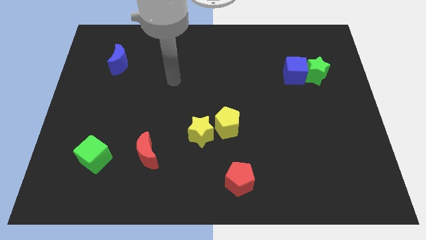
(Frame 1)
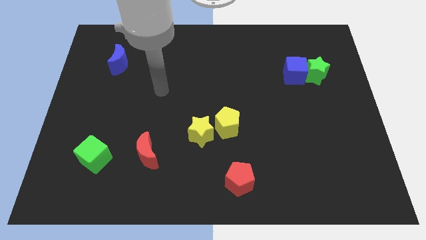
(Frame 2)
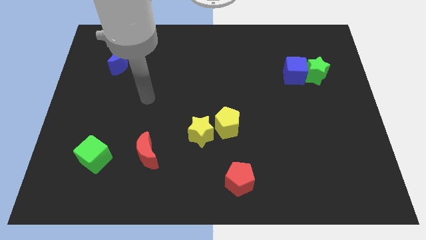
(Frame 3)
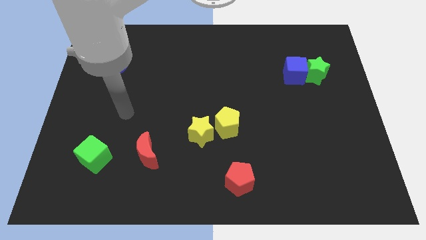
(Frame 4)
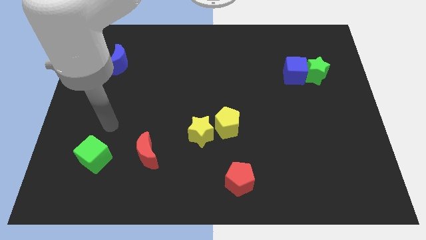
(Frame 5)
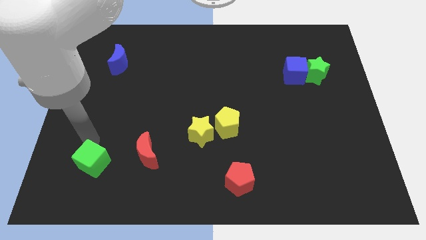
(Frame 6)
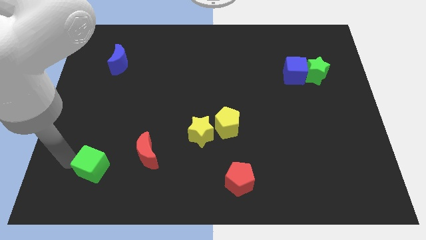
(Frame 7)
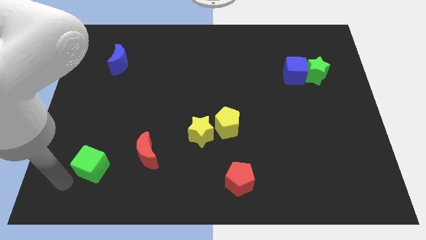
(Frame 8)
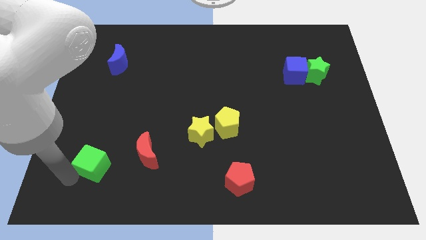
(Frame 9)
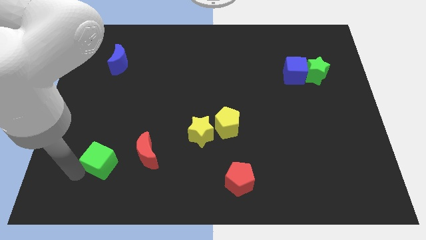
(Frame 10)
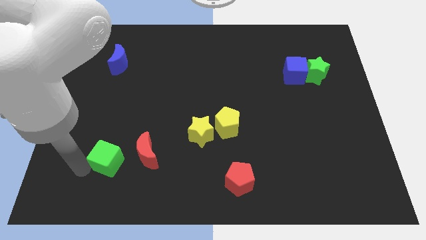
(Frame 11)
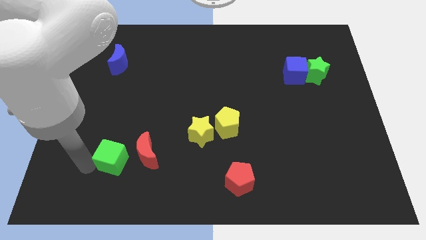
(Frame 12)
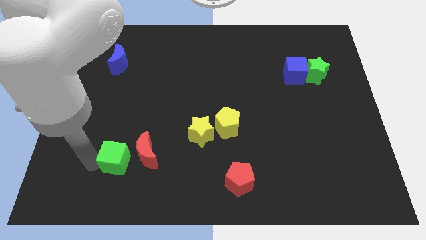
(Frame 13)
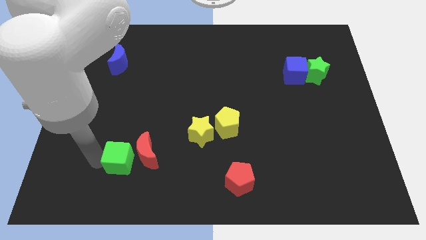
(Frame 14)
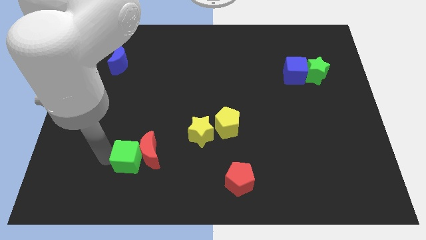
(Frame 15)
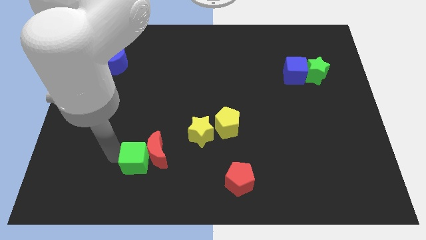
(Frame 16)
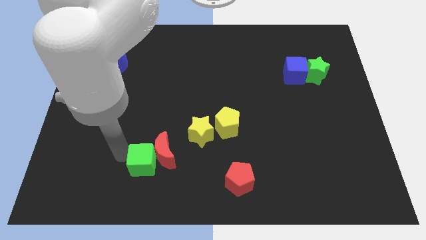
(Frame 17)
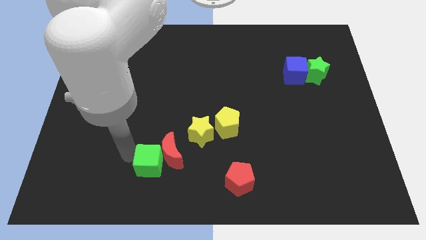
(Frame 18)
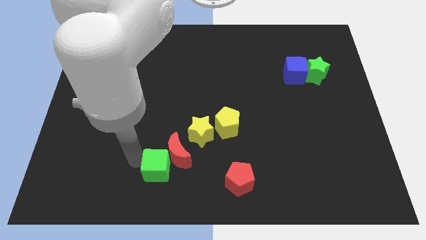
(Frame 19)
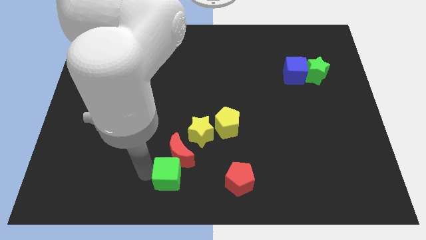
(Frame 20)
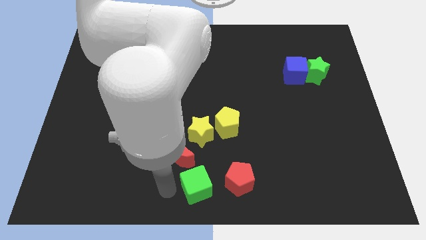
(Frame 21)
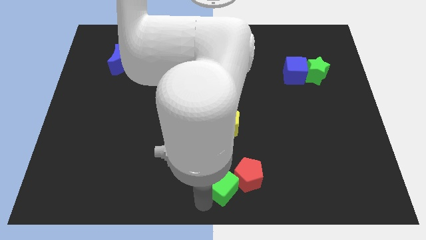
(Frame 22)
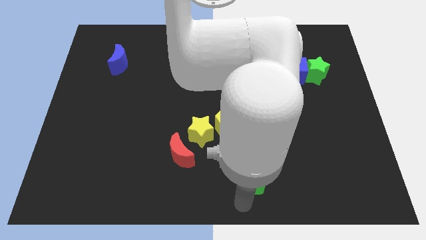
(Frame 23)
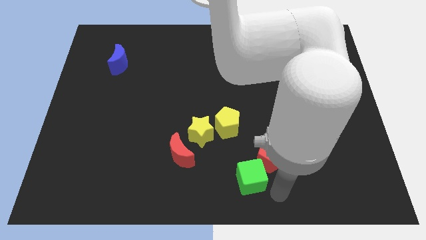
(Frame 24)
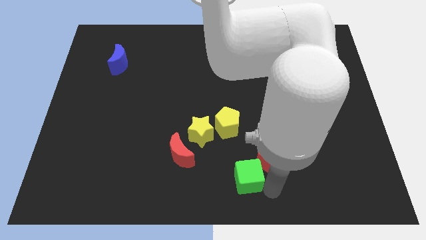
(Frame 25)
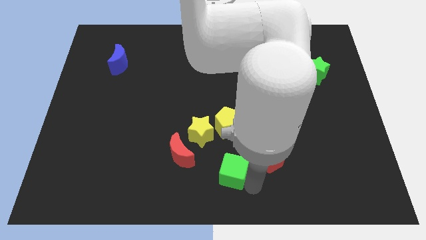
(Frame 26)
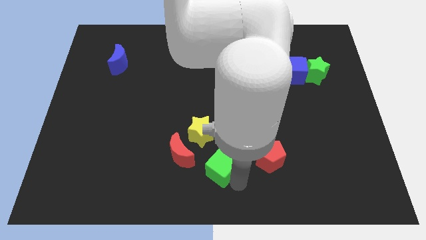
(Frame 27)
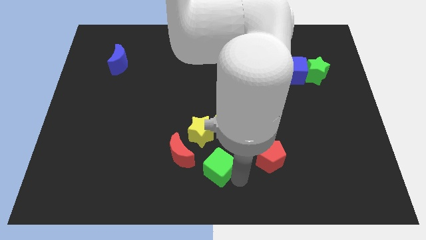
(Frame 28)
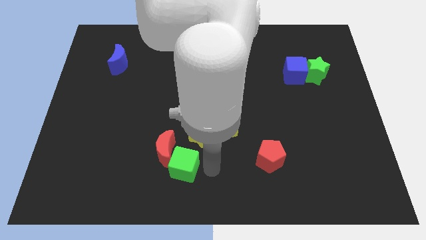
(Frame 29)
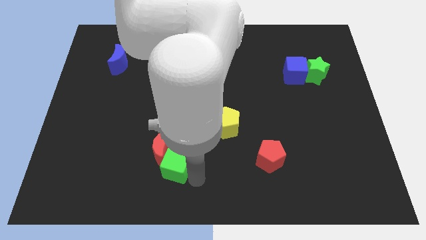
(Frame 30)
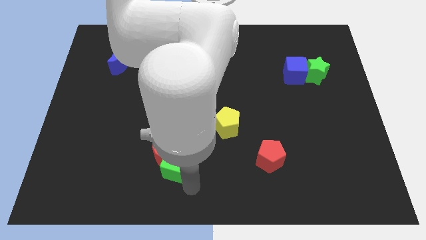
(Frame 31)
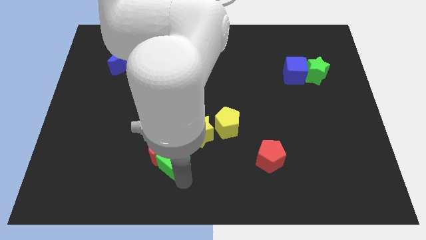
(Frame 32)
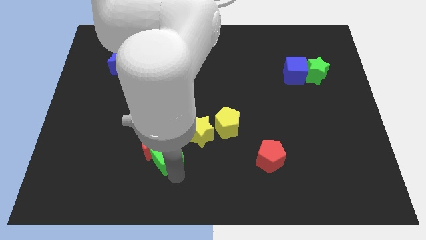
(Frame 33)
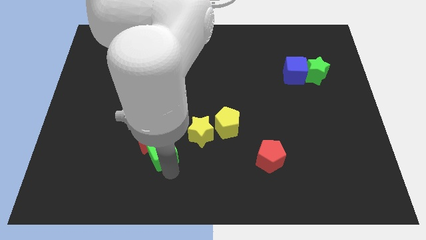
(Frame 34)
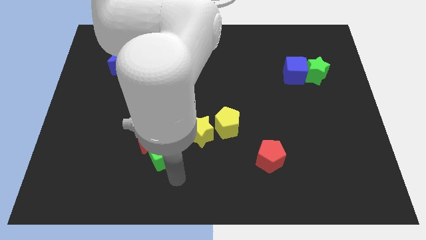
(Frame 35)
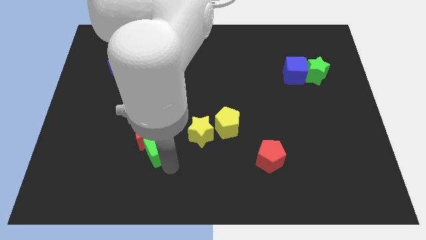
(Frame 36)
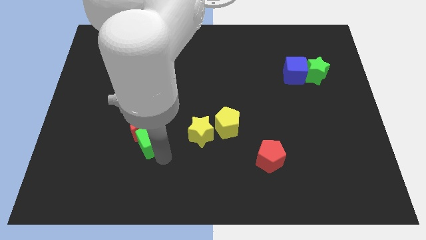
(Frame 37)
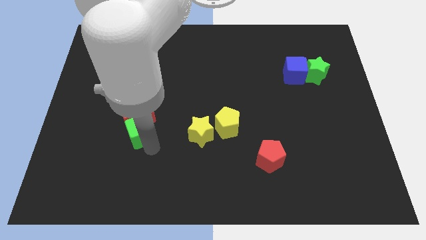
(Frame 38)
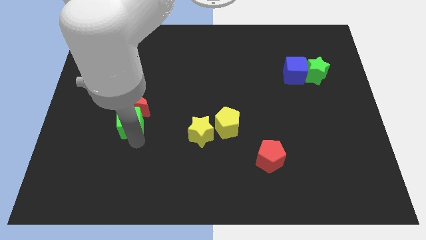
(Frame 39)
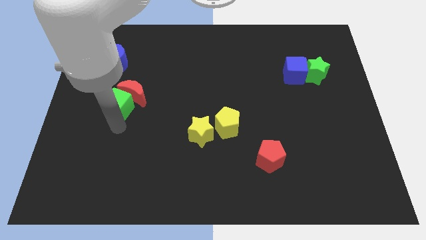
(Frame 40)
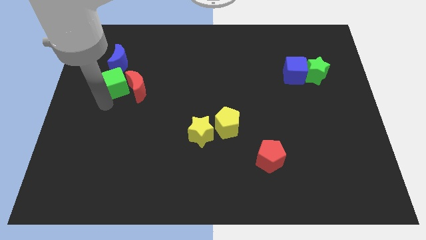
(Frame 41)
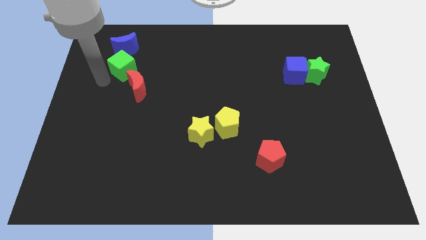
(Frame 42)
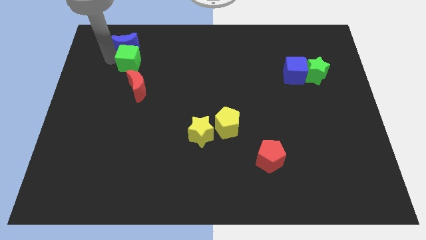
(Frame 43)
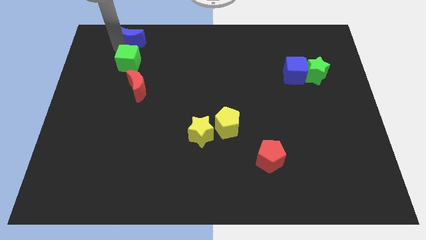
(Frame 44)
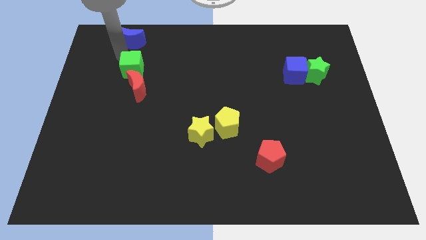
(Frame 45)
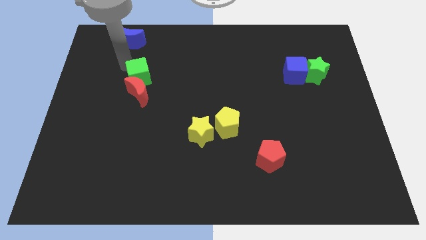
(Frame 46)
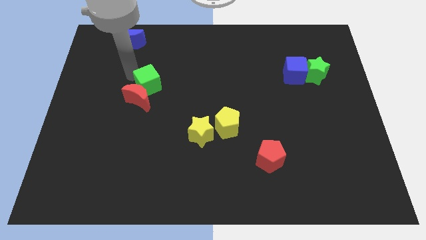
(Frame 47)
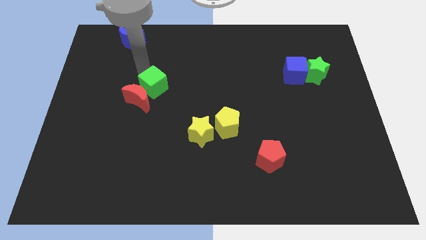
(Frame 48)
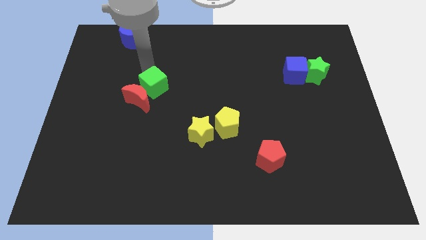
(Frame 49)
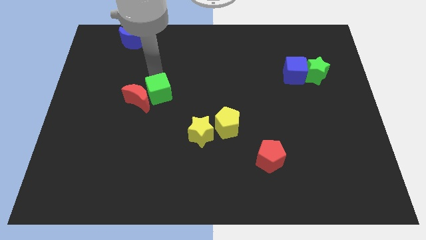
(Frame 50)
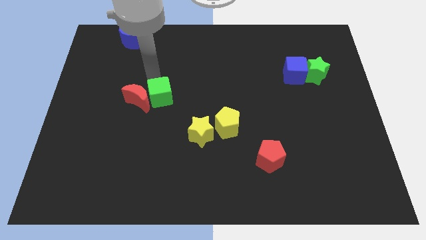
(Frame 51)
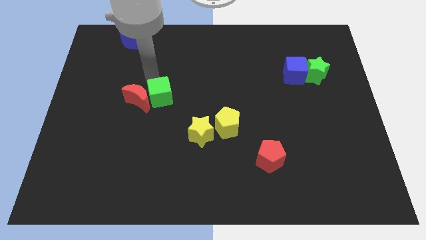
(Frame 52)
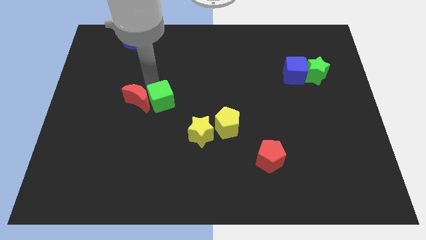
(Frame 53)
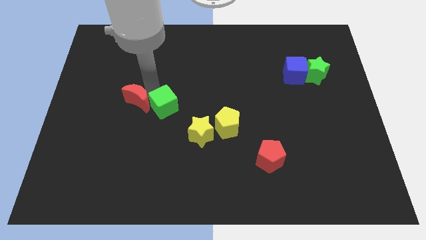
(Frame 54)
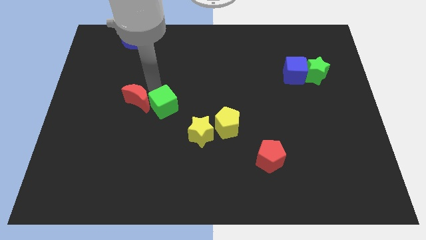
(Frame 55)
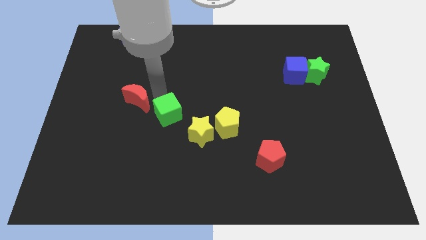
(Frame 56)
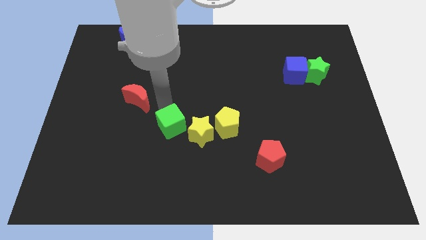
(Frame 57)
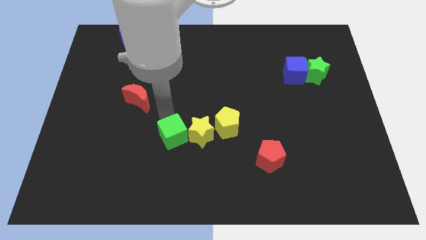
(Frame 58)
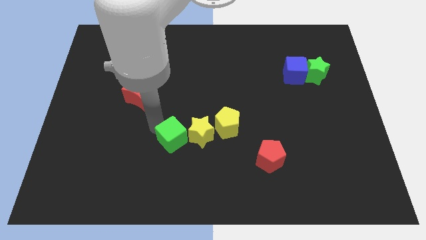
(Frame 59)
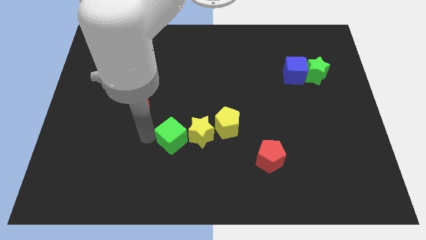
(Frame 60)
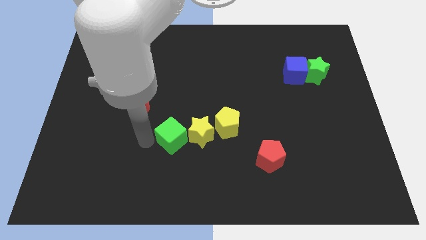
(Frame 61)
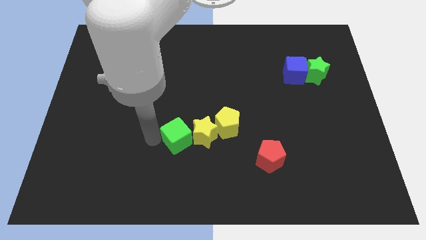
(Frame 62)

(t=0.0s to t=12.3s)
put the green cube towards the yellow star

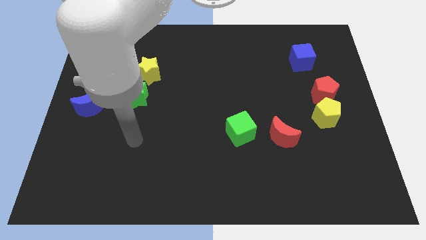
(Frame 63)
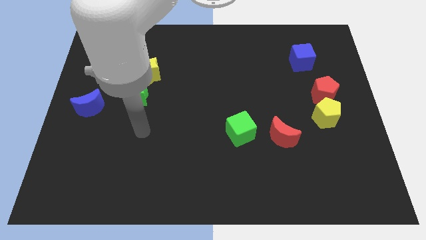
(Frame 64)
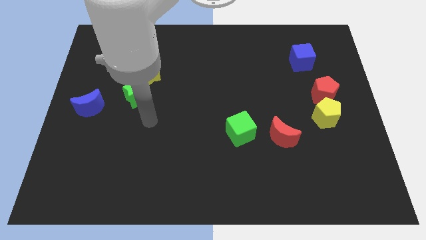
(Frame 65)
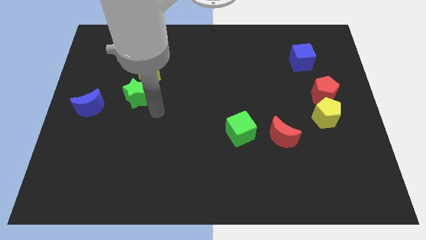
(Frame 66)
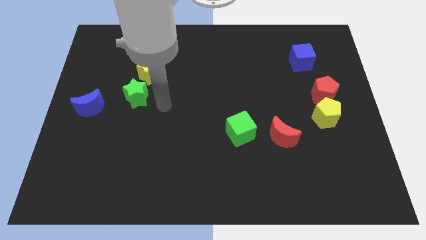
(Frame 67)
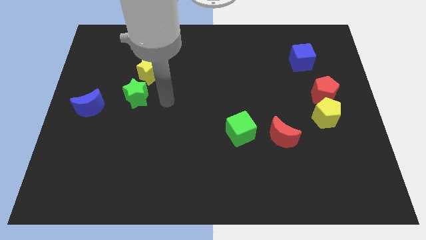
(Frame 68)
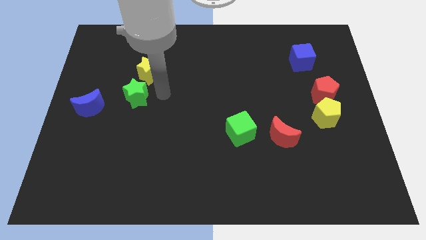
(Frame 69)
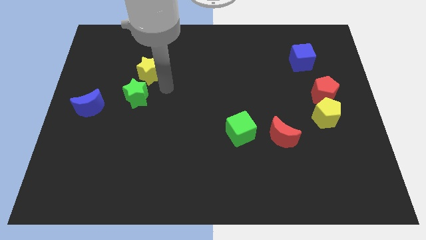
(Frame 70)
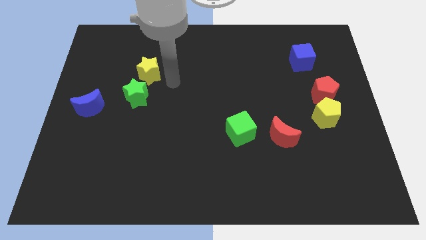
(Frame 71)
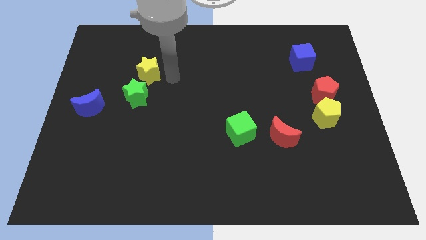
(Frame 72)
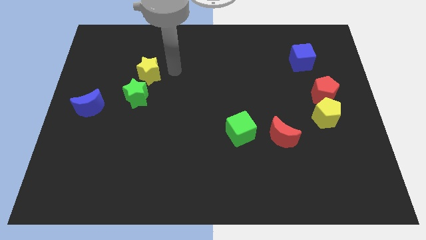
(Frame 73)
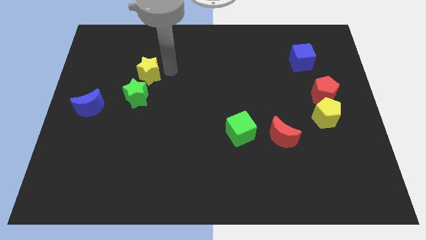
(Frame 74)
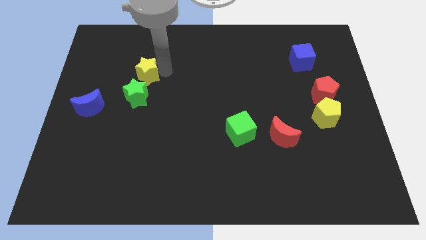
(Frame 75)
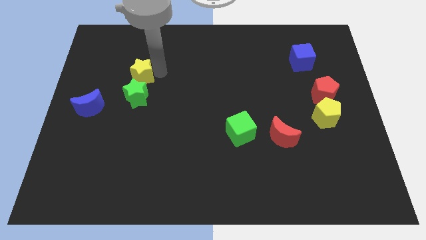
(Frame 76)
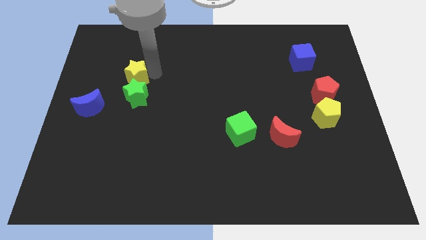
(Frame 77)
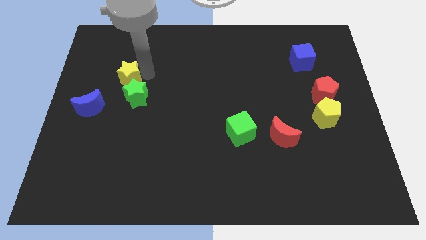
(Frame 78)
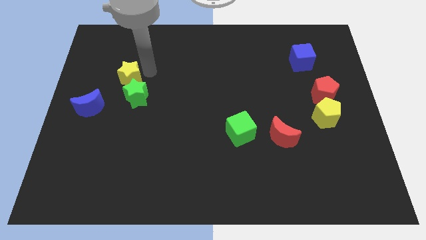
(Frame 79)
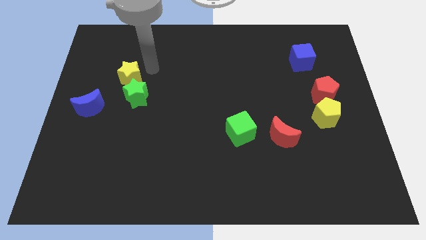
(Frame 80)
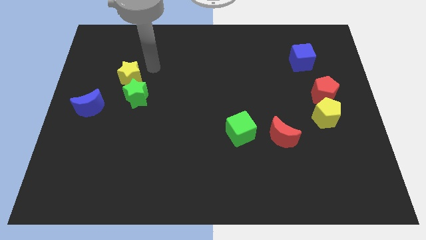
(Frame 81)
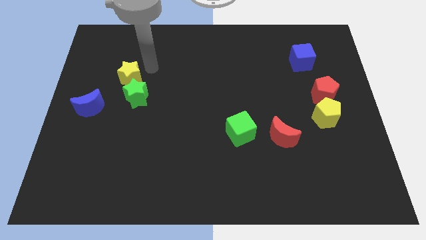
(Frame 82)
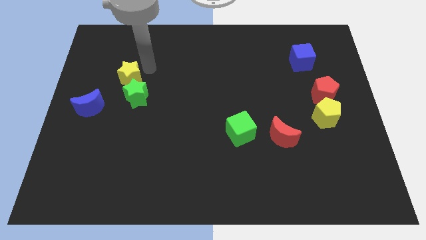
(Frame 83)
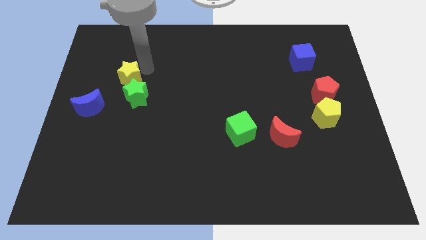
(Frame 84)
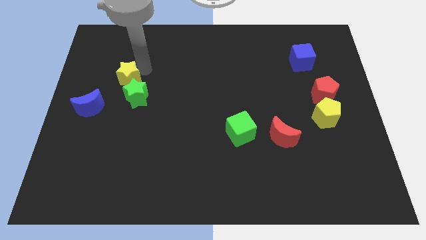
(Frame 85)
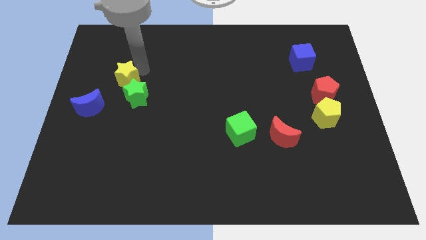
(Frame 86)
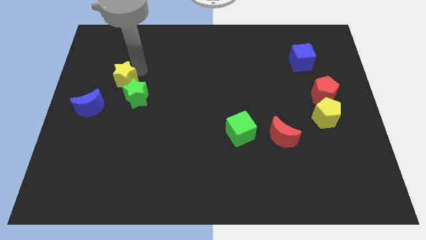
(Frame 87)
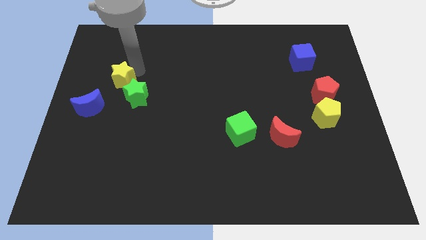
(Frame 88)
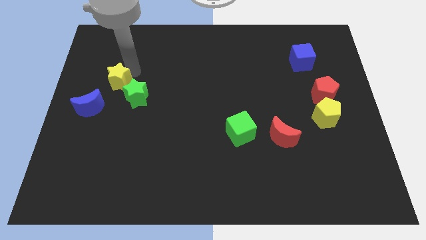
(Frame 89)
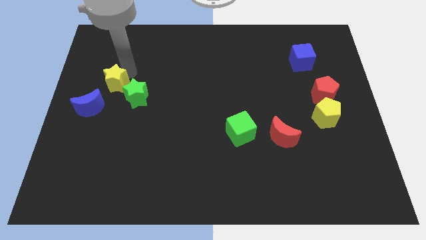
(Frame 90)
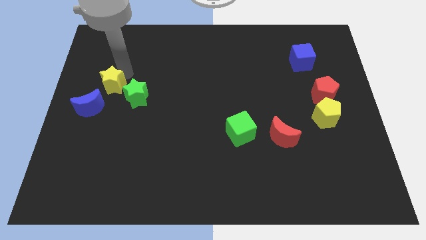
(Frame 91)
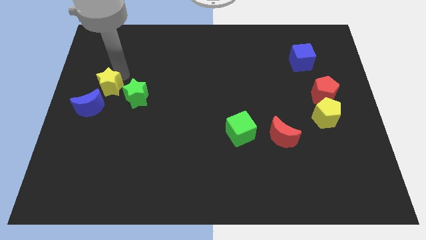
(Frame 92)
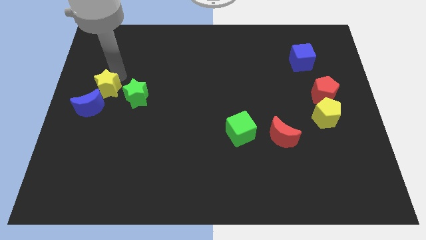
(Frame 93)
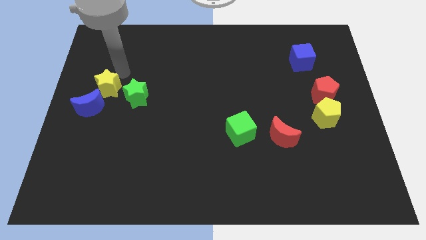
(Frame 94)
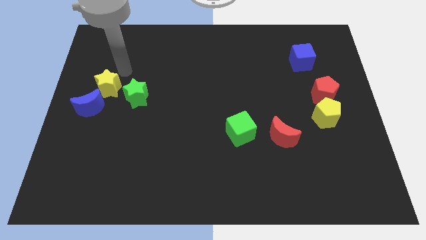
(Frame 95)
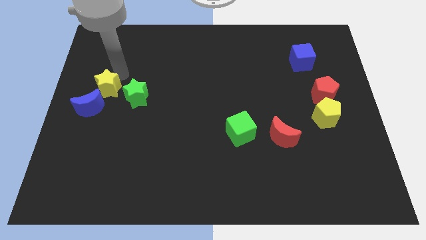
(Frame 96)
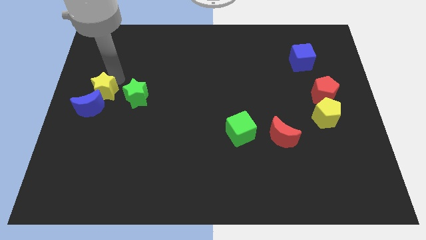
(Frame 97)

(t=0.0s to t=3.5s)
slide the yellow star next to the blue moon
